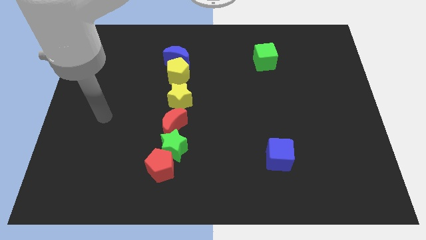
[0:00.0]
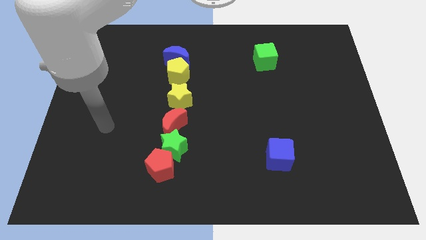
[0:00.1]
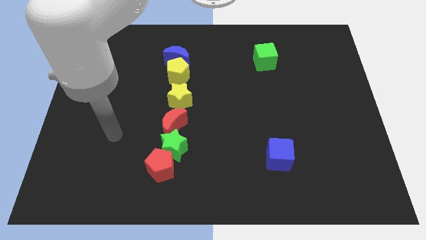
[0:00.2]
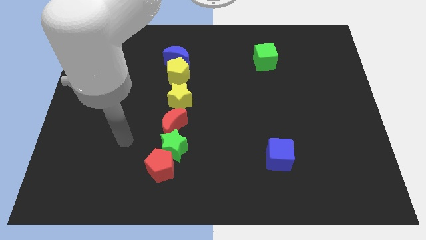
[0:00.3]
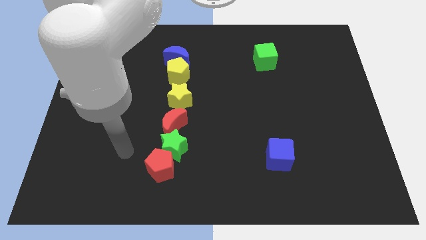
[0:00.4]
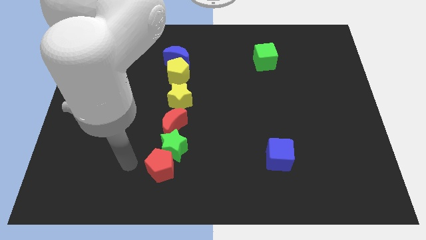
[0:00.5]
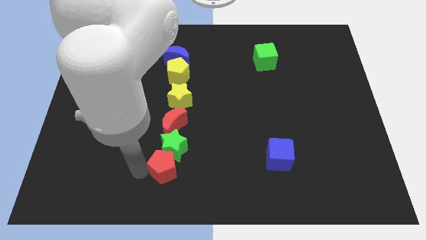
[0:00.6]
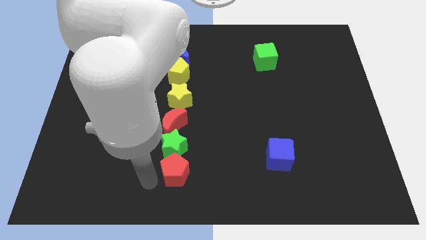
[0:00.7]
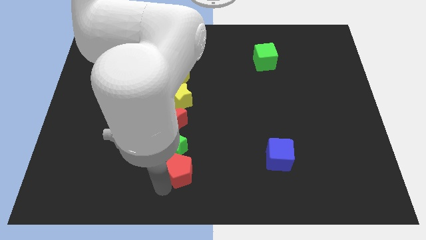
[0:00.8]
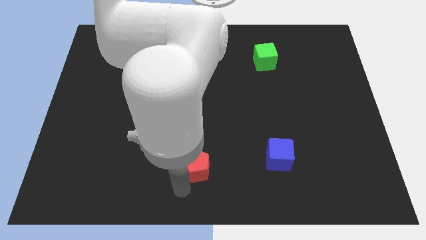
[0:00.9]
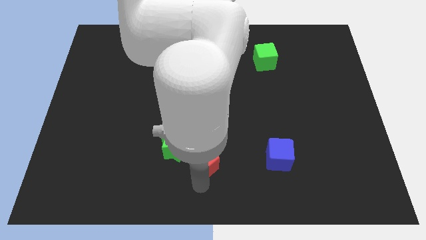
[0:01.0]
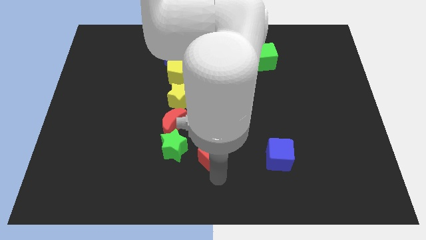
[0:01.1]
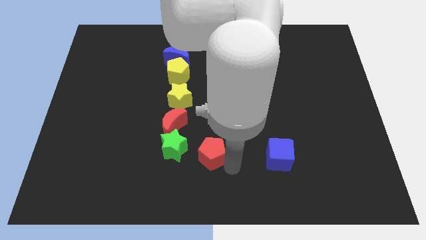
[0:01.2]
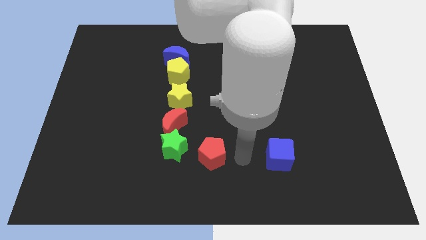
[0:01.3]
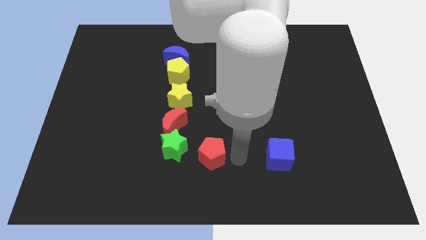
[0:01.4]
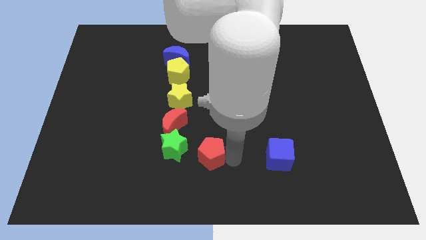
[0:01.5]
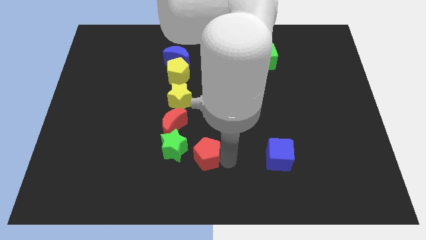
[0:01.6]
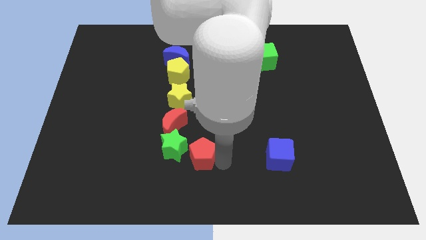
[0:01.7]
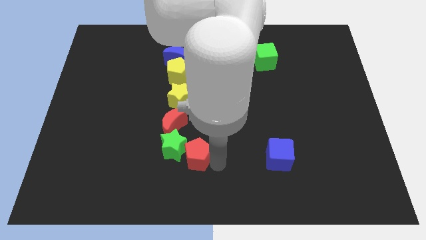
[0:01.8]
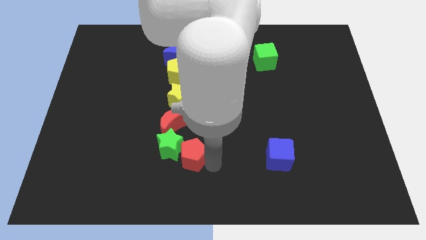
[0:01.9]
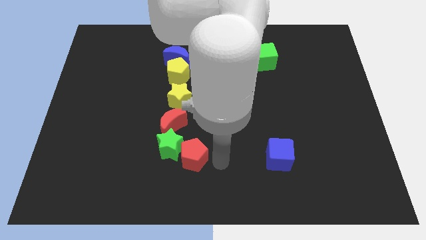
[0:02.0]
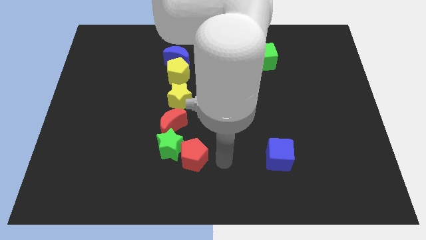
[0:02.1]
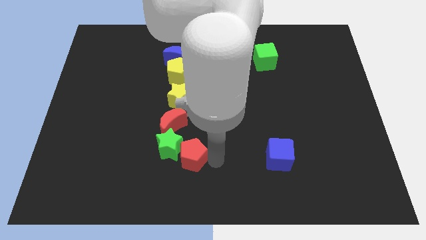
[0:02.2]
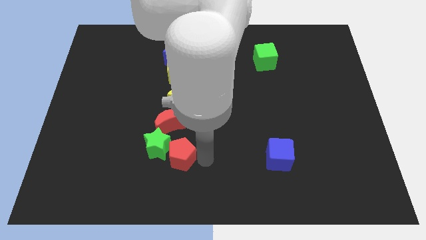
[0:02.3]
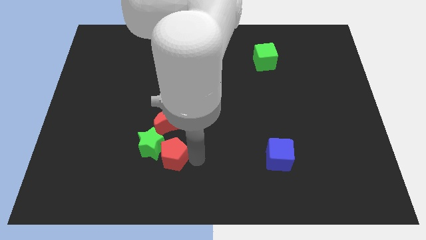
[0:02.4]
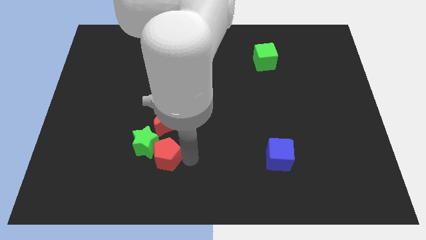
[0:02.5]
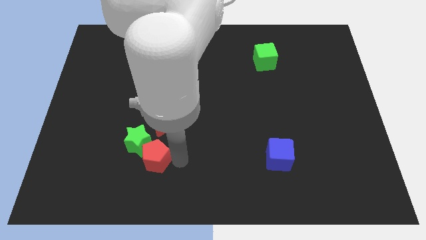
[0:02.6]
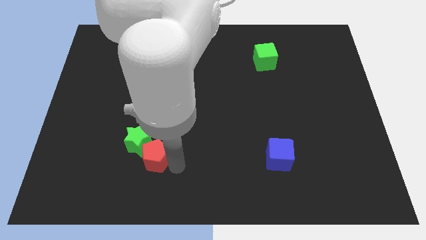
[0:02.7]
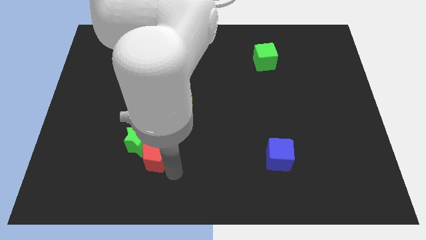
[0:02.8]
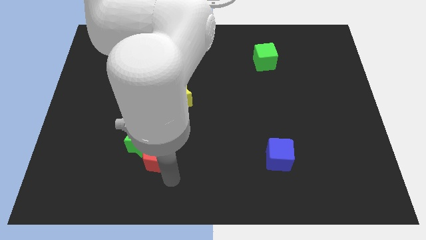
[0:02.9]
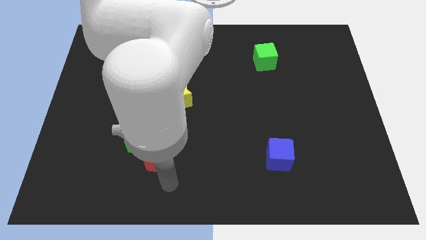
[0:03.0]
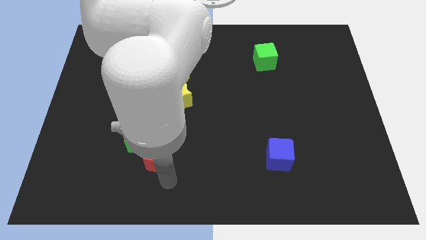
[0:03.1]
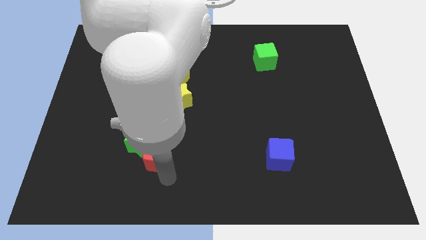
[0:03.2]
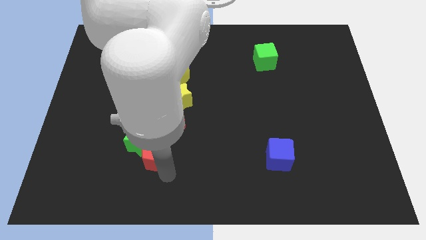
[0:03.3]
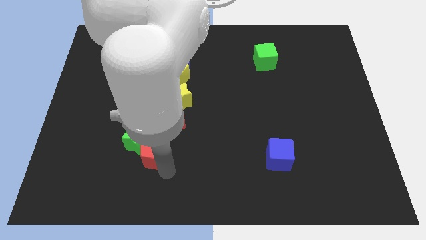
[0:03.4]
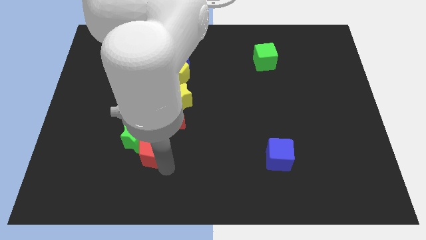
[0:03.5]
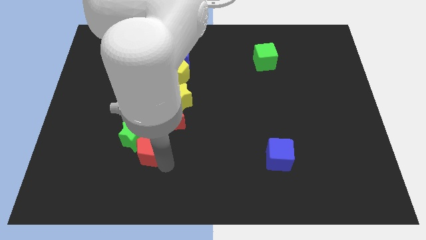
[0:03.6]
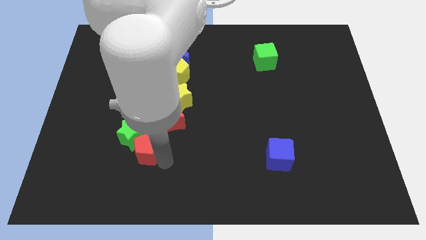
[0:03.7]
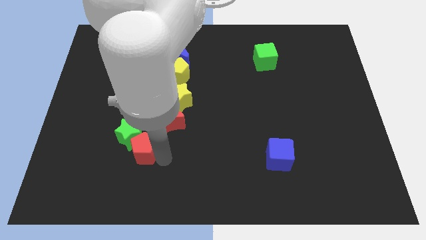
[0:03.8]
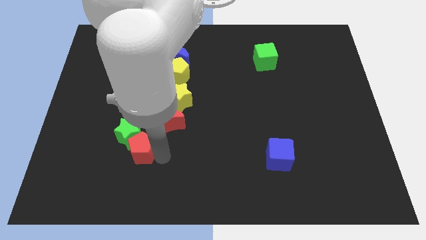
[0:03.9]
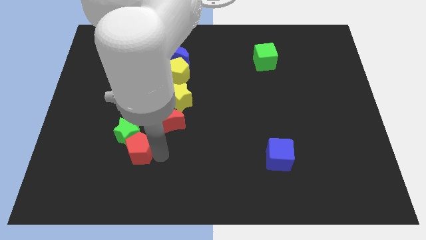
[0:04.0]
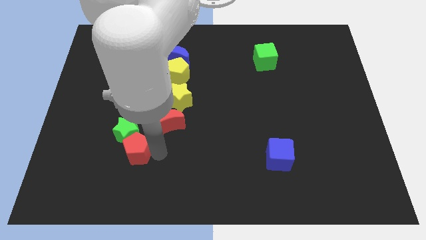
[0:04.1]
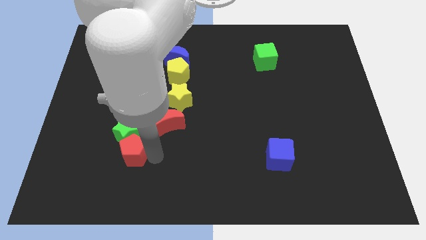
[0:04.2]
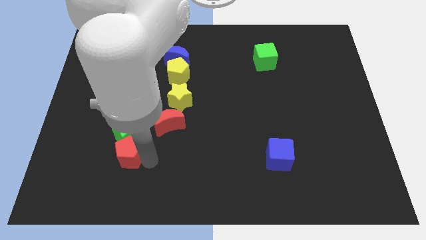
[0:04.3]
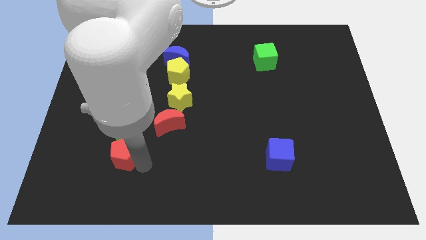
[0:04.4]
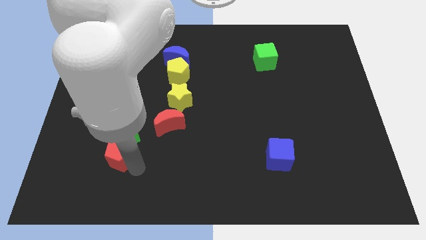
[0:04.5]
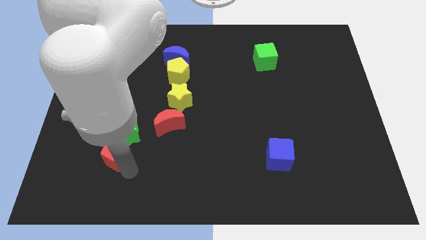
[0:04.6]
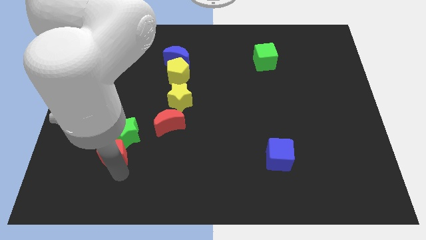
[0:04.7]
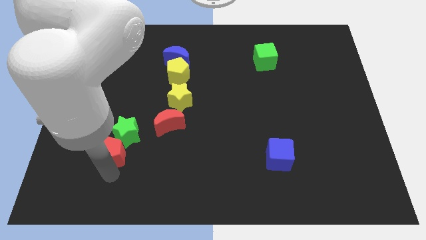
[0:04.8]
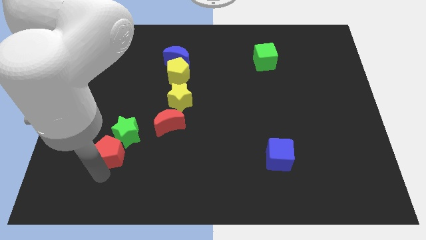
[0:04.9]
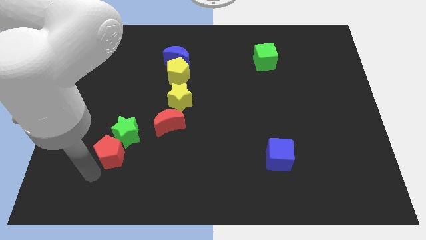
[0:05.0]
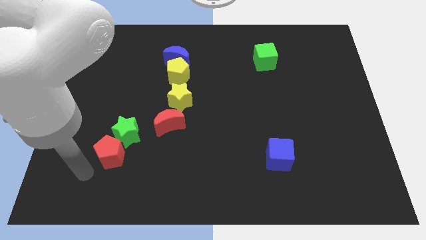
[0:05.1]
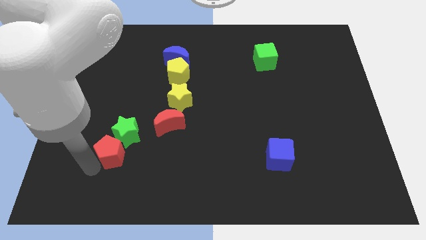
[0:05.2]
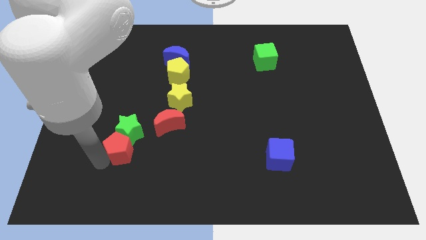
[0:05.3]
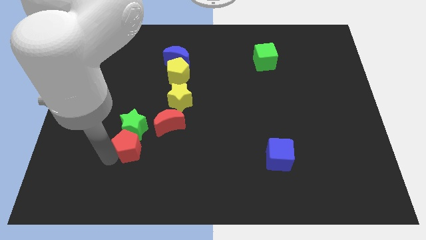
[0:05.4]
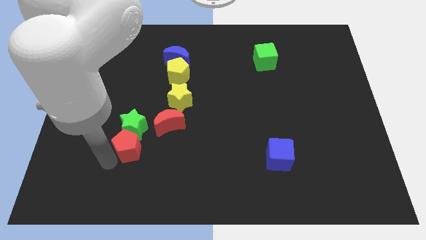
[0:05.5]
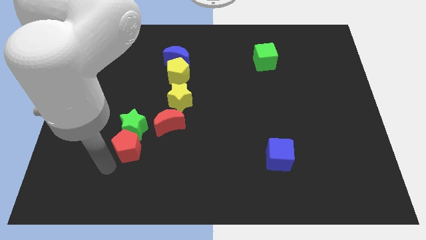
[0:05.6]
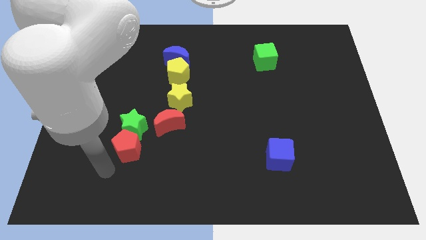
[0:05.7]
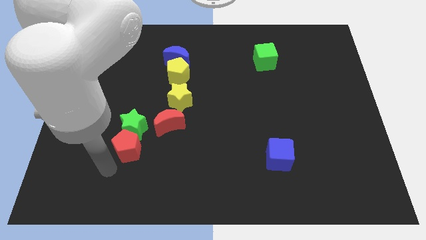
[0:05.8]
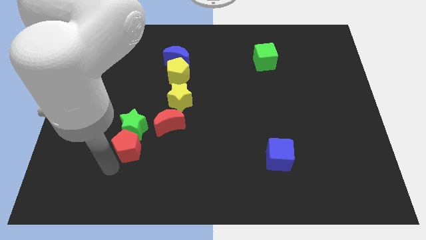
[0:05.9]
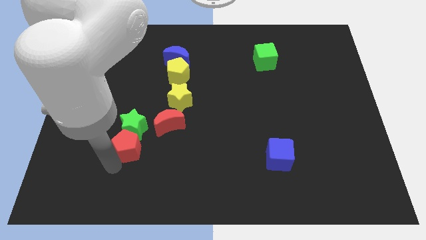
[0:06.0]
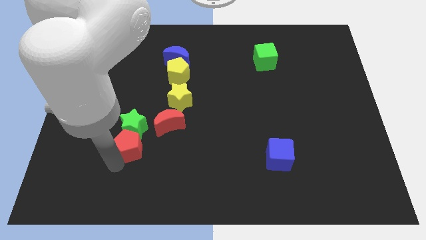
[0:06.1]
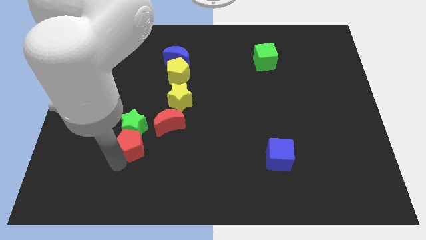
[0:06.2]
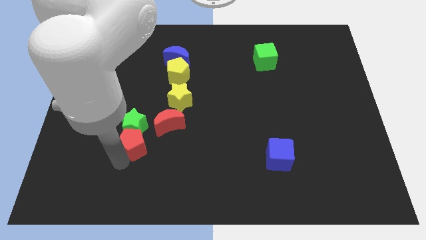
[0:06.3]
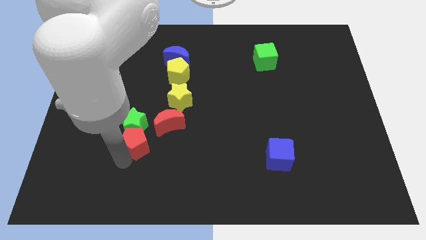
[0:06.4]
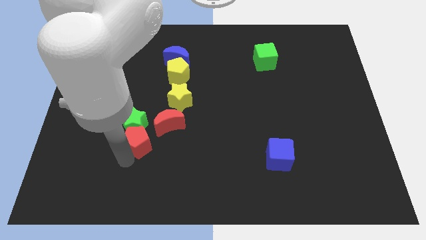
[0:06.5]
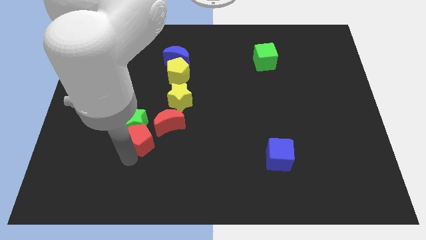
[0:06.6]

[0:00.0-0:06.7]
push the red pentagon just left of the red moon
